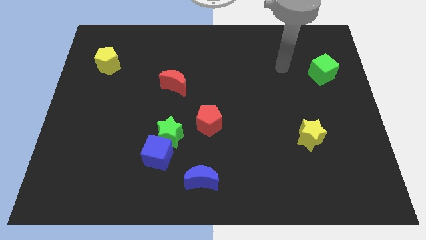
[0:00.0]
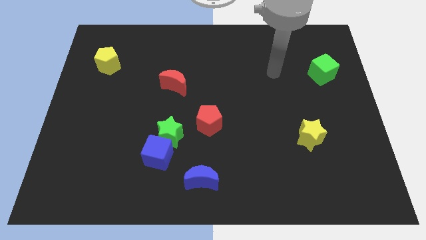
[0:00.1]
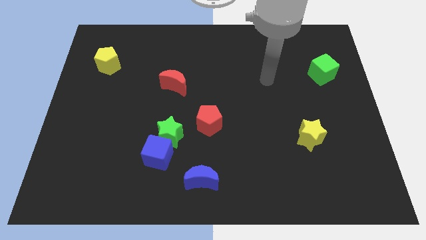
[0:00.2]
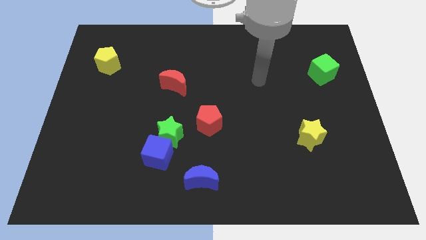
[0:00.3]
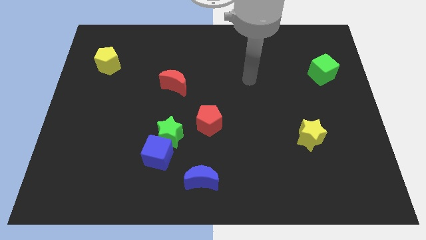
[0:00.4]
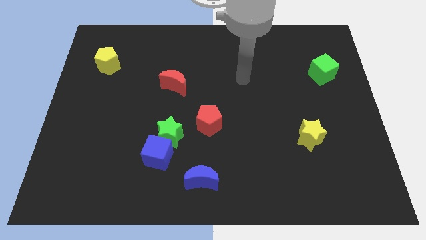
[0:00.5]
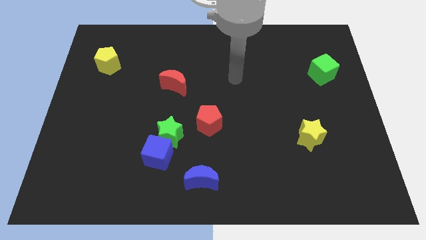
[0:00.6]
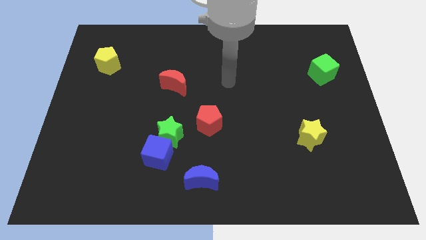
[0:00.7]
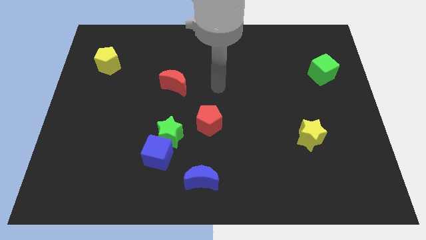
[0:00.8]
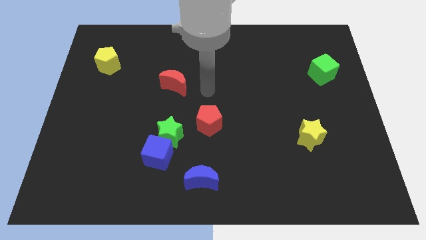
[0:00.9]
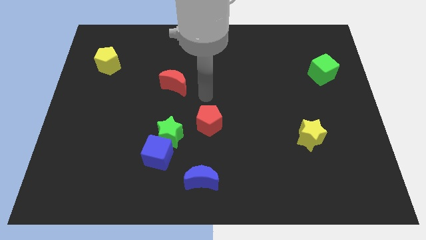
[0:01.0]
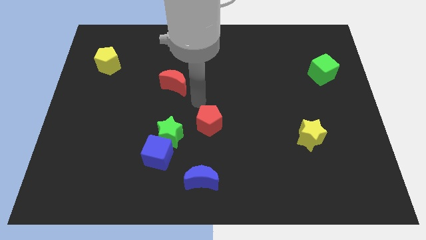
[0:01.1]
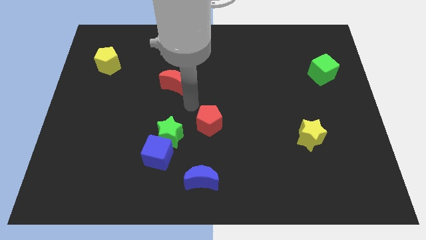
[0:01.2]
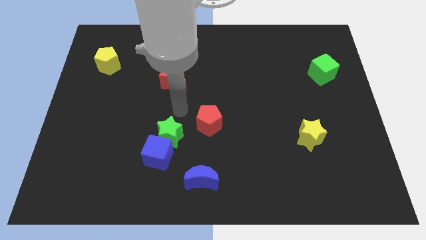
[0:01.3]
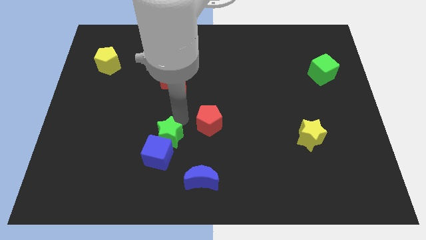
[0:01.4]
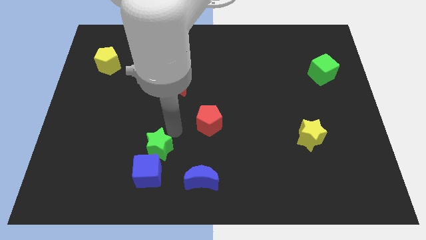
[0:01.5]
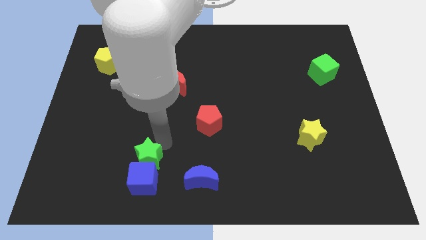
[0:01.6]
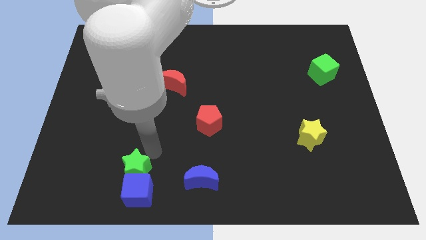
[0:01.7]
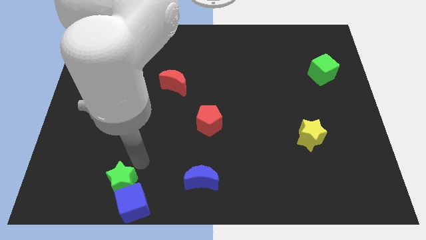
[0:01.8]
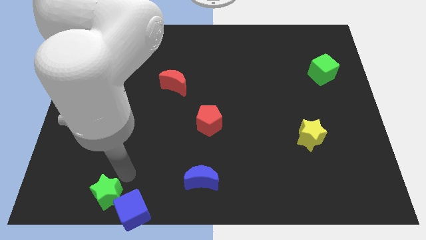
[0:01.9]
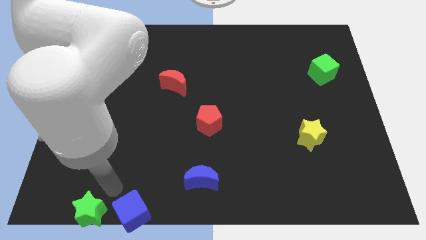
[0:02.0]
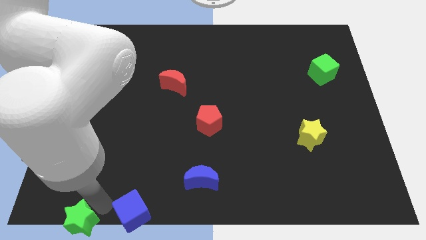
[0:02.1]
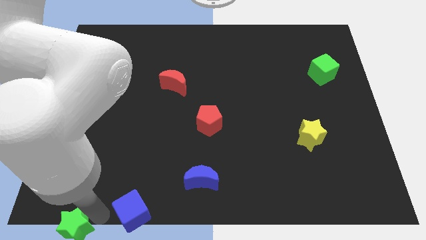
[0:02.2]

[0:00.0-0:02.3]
pull the blue cube apart from the green star

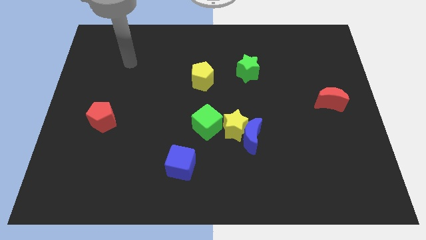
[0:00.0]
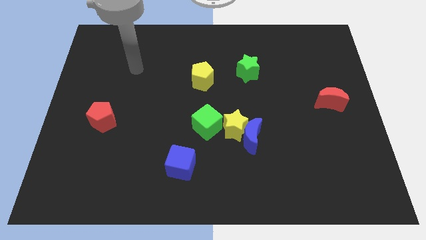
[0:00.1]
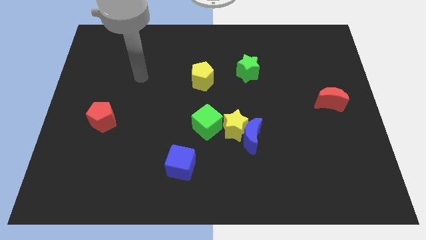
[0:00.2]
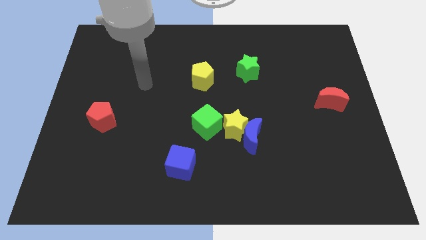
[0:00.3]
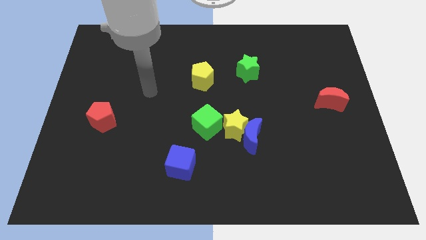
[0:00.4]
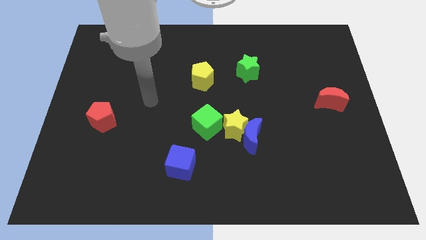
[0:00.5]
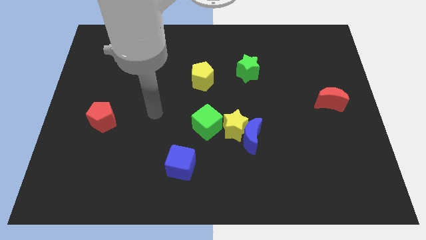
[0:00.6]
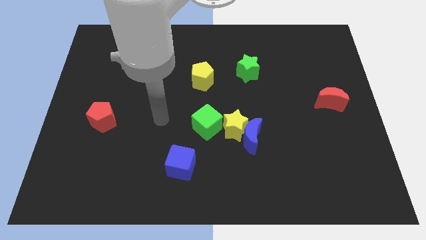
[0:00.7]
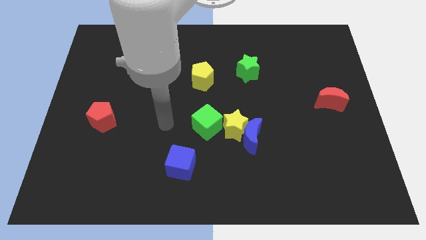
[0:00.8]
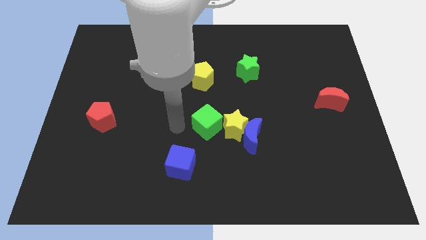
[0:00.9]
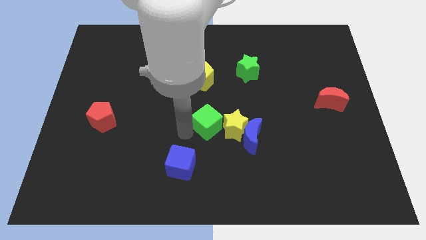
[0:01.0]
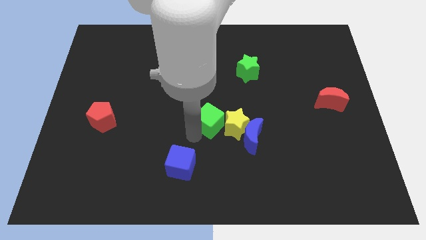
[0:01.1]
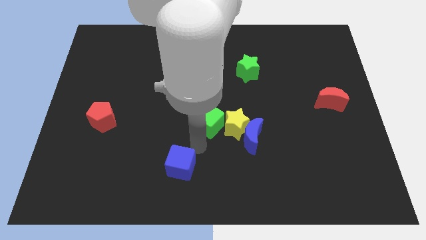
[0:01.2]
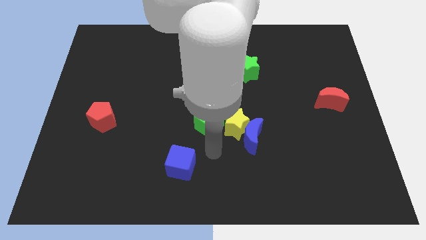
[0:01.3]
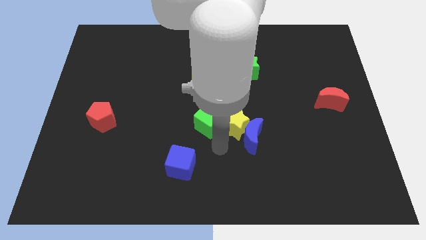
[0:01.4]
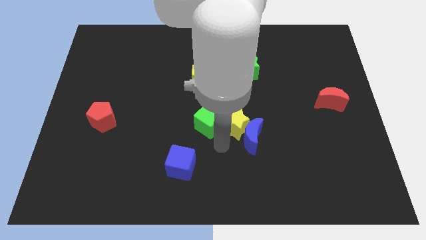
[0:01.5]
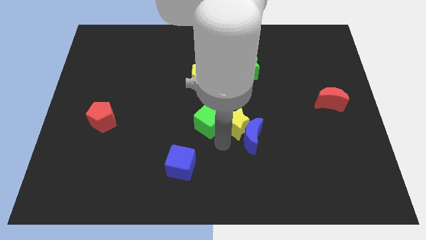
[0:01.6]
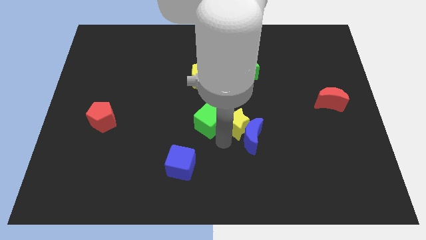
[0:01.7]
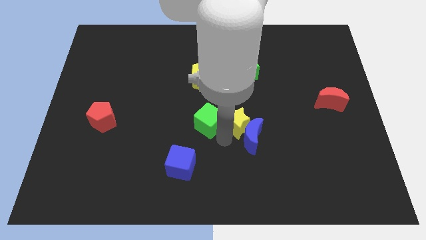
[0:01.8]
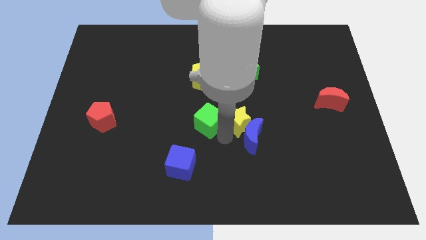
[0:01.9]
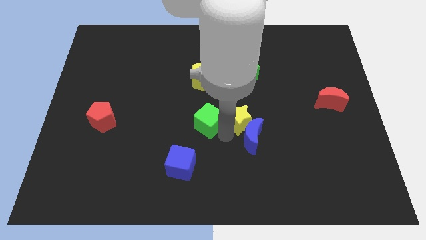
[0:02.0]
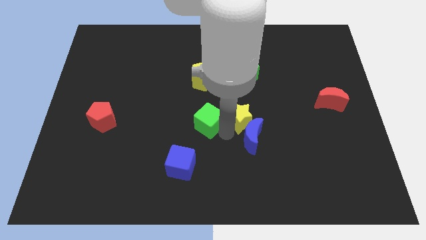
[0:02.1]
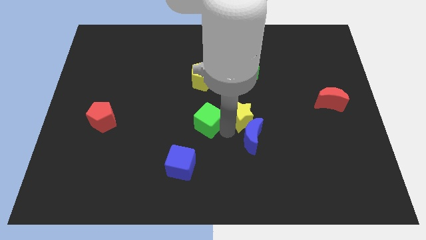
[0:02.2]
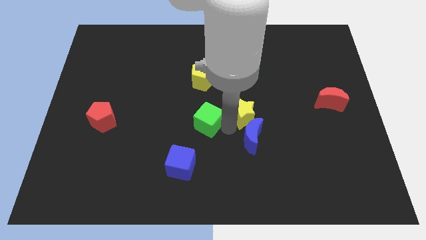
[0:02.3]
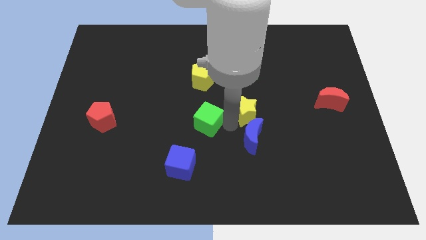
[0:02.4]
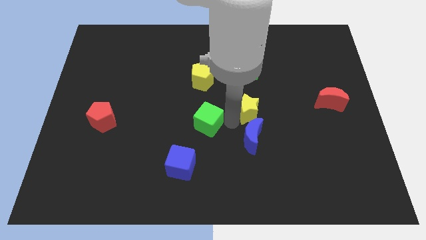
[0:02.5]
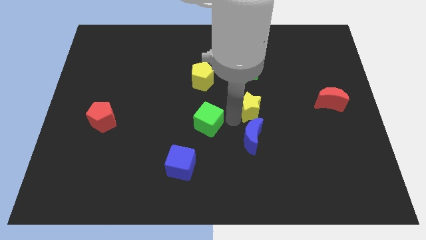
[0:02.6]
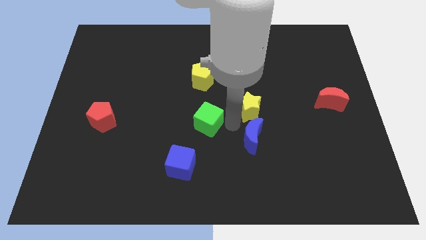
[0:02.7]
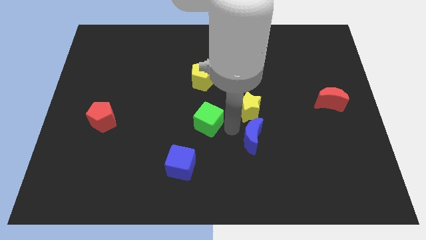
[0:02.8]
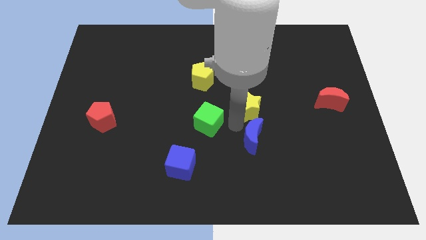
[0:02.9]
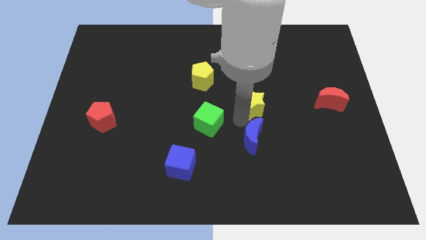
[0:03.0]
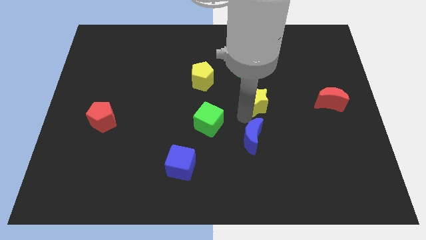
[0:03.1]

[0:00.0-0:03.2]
separate the yellow star from the blue moon and green cube

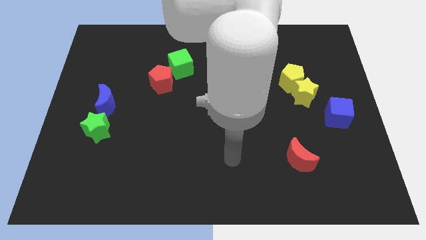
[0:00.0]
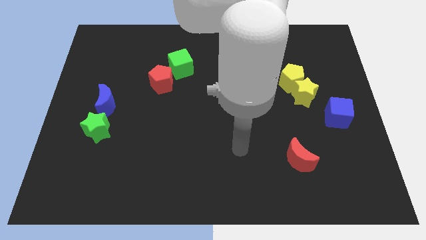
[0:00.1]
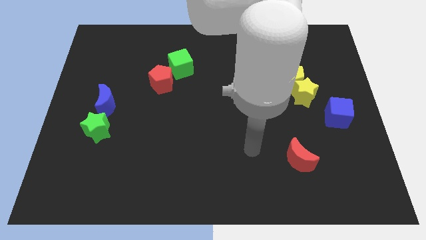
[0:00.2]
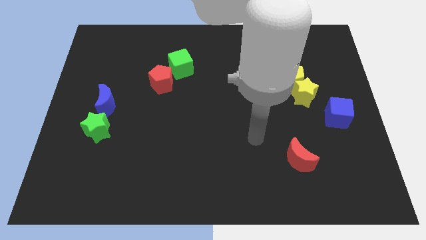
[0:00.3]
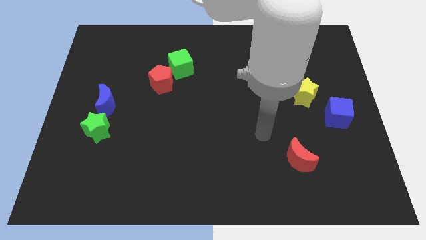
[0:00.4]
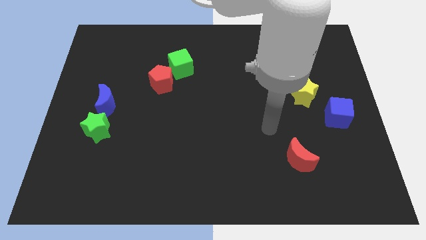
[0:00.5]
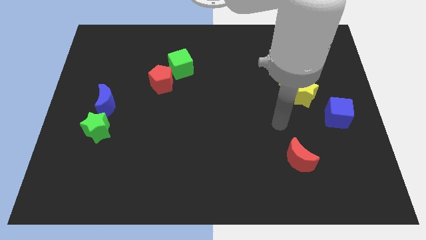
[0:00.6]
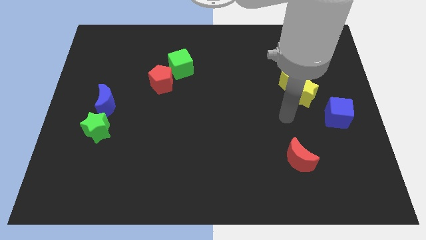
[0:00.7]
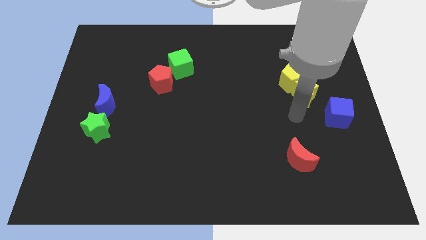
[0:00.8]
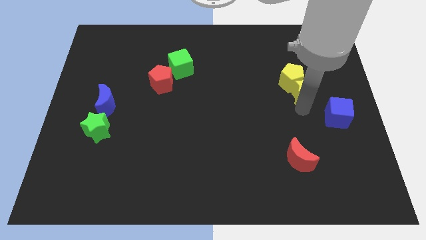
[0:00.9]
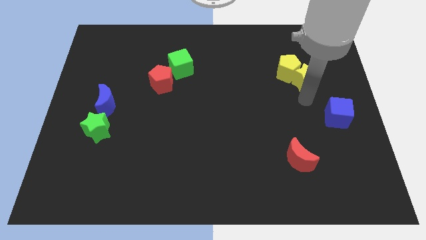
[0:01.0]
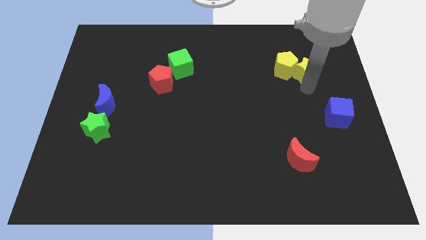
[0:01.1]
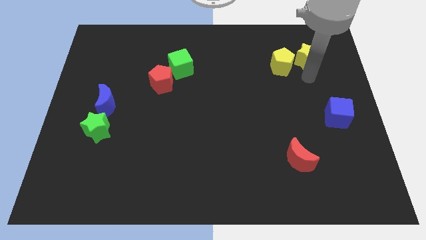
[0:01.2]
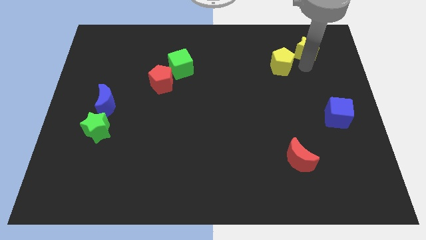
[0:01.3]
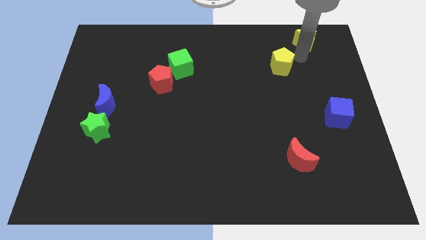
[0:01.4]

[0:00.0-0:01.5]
pull the yellow pentagon apart from the yellow star

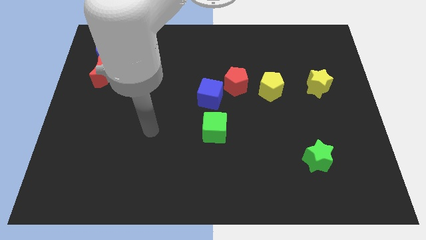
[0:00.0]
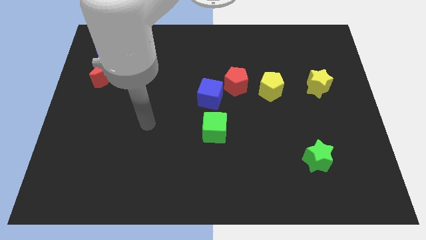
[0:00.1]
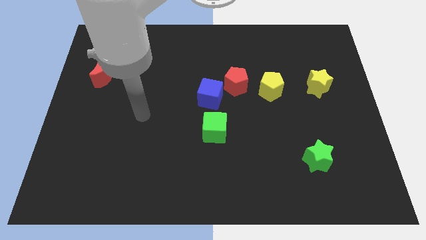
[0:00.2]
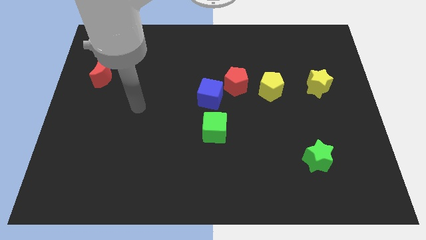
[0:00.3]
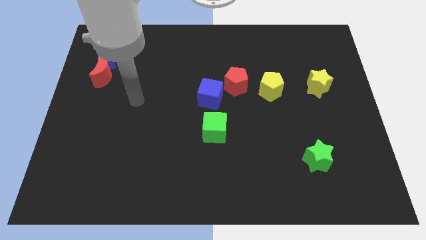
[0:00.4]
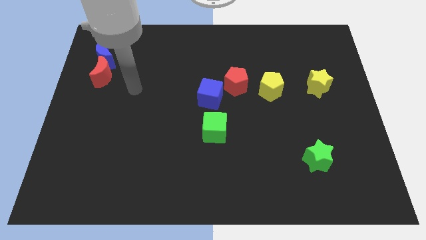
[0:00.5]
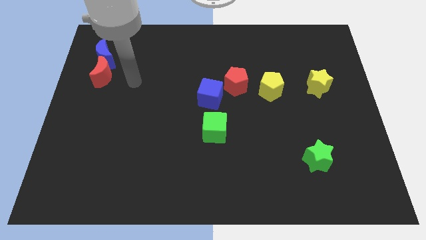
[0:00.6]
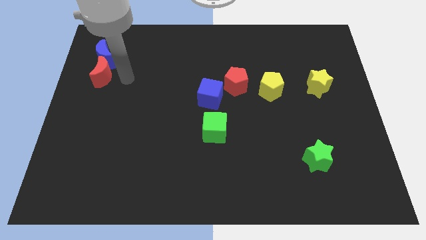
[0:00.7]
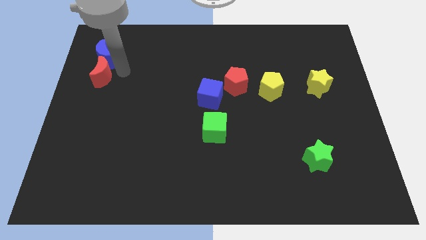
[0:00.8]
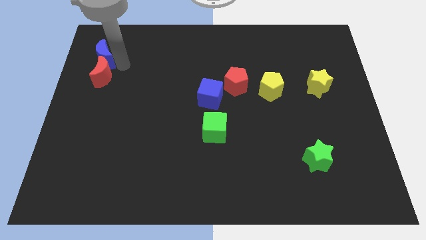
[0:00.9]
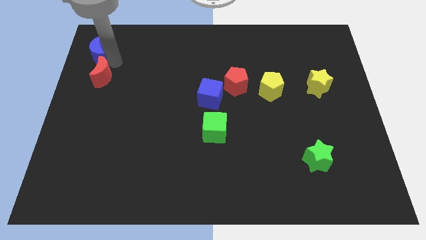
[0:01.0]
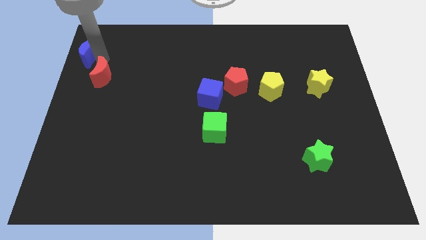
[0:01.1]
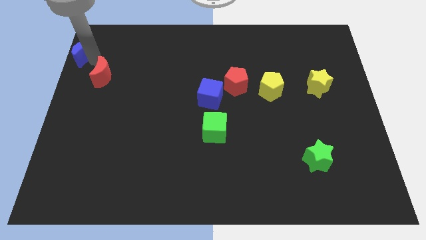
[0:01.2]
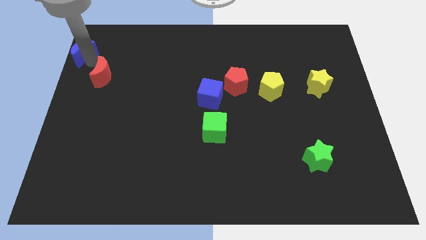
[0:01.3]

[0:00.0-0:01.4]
move the red moon away from the blue moon

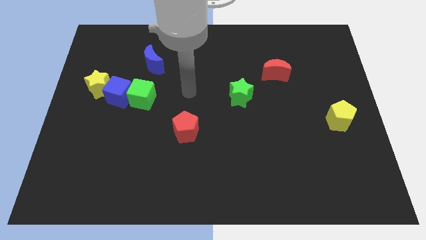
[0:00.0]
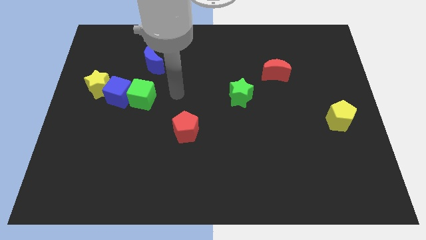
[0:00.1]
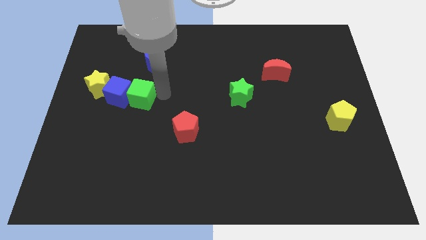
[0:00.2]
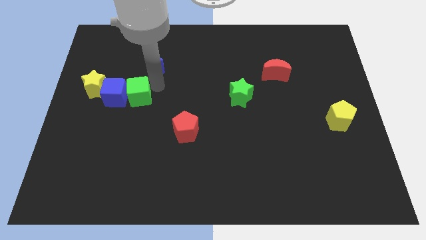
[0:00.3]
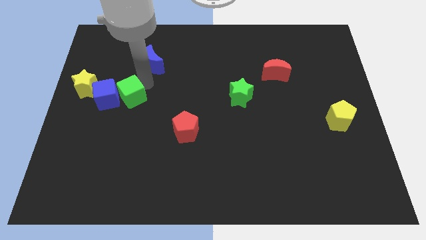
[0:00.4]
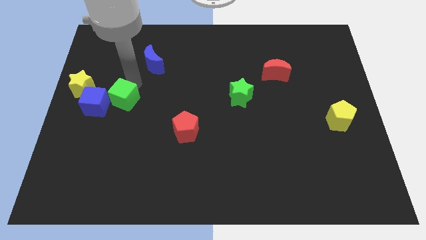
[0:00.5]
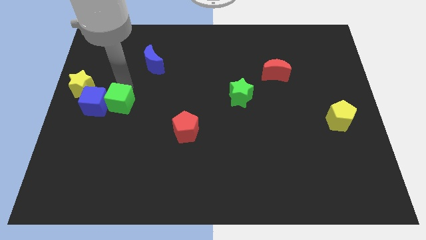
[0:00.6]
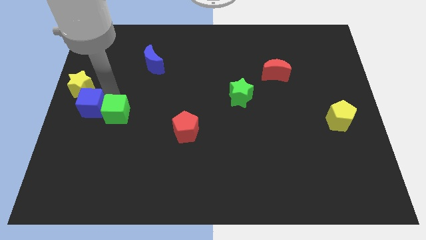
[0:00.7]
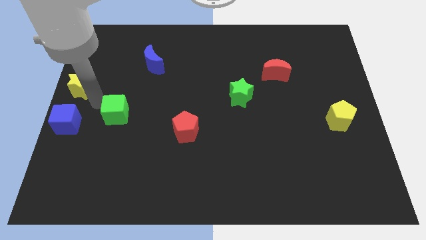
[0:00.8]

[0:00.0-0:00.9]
separate the green cube from the blue cube
